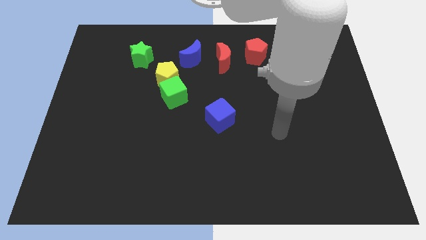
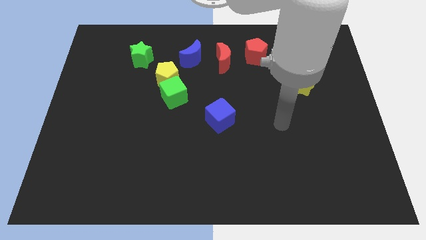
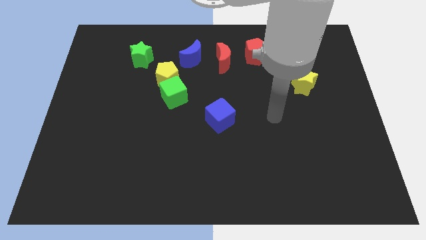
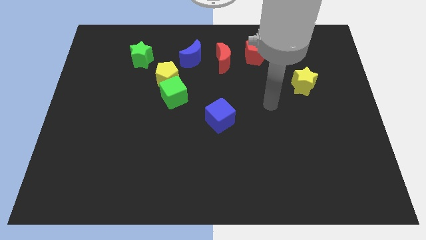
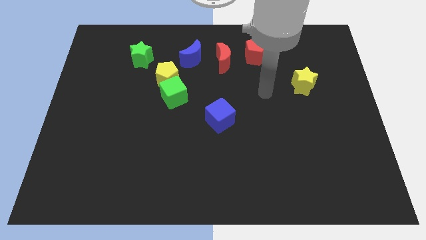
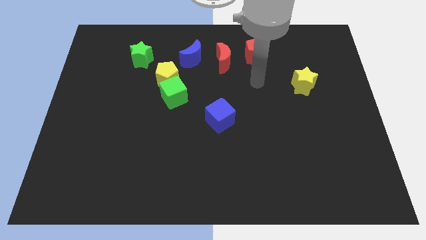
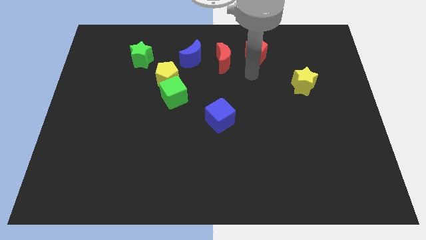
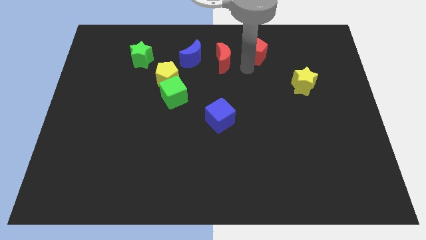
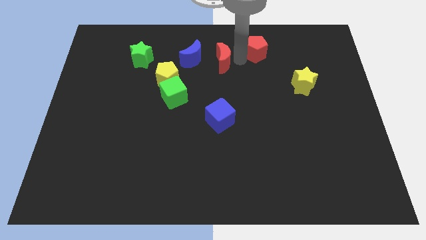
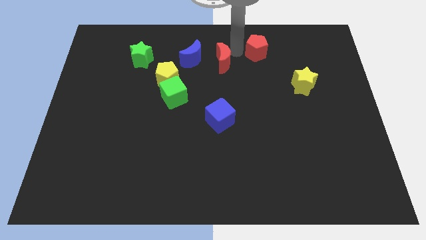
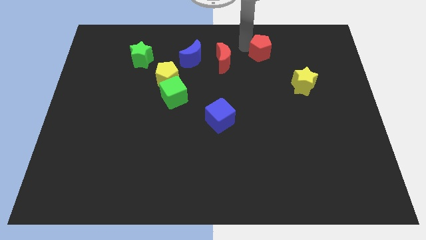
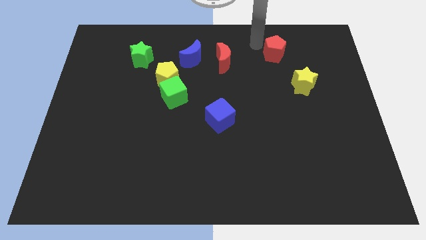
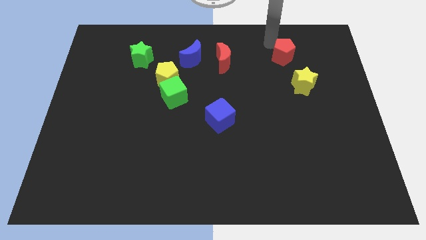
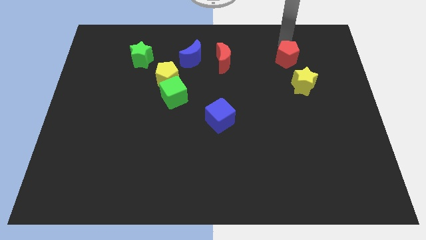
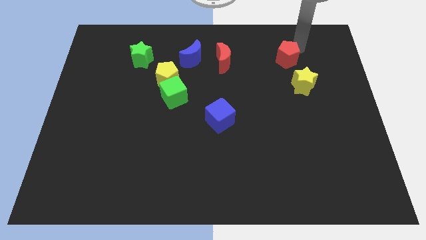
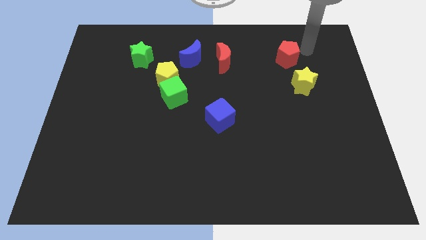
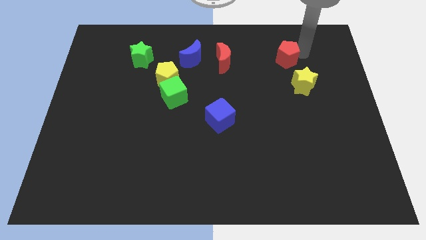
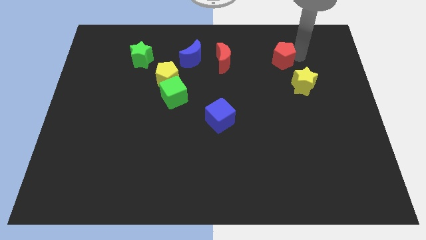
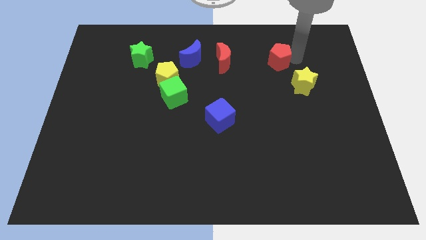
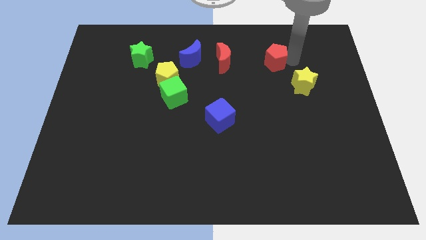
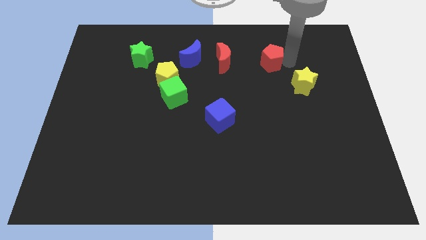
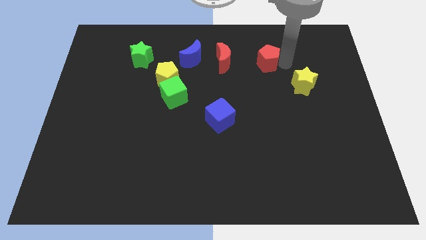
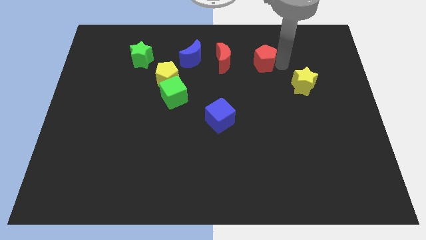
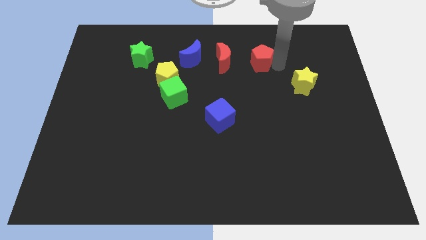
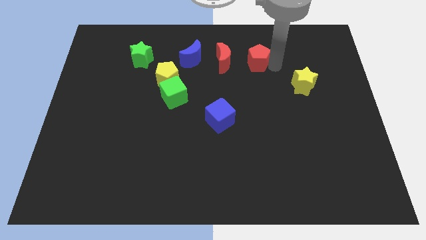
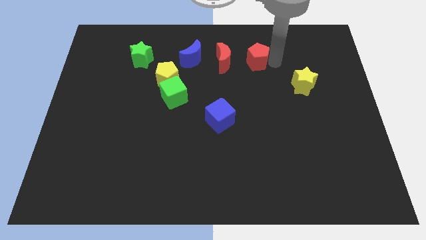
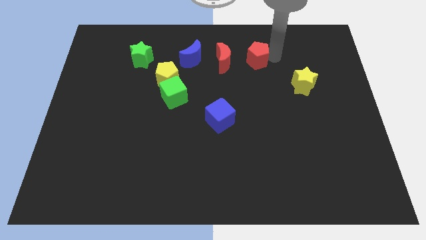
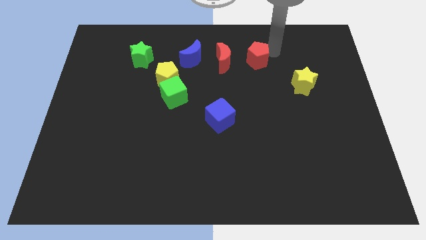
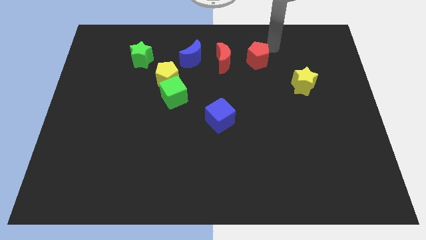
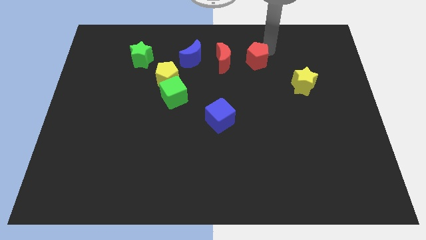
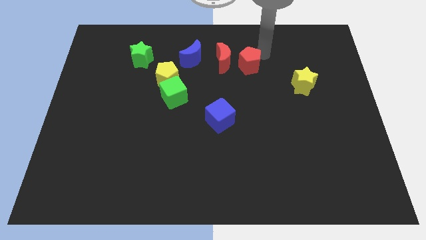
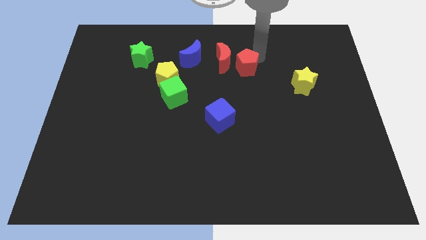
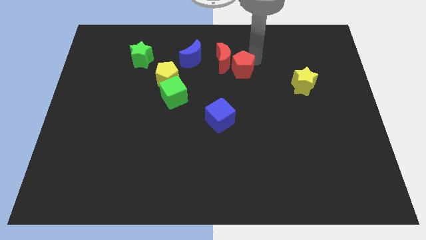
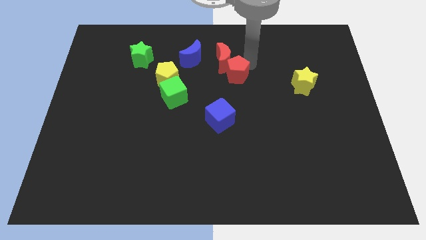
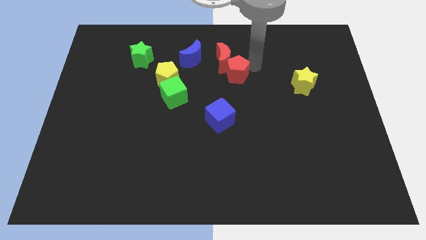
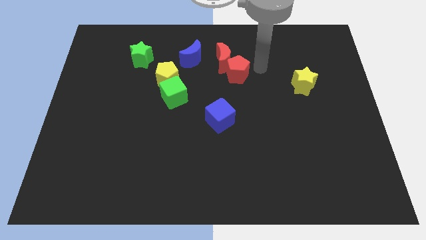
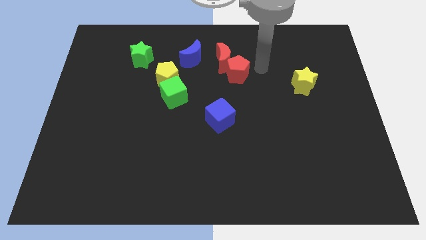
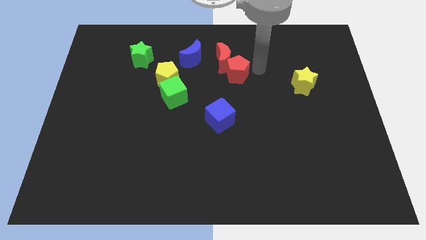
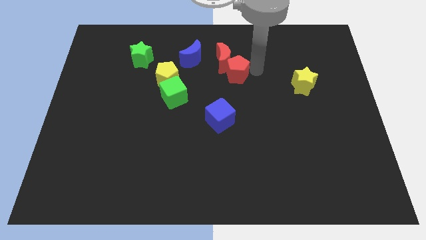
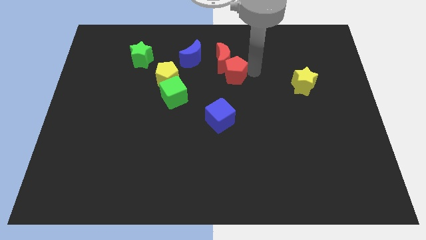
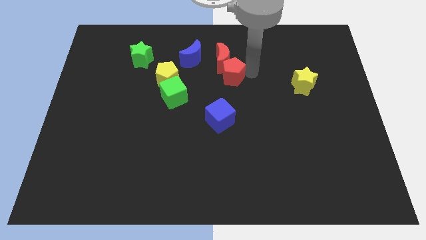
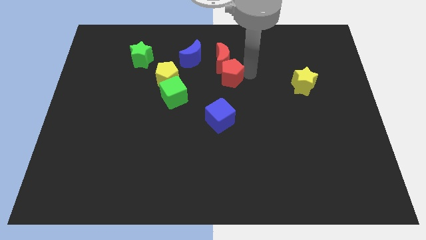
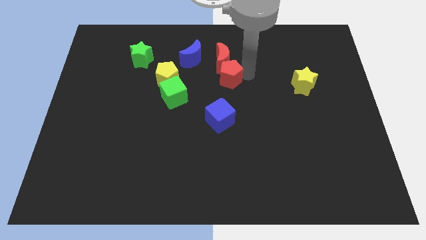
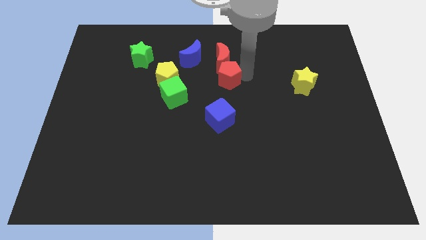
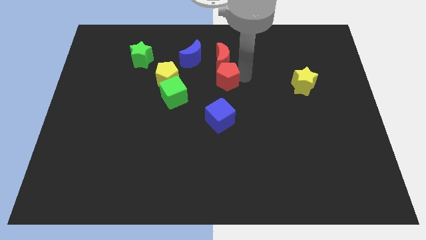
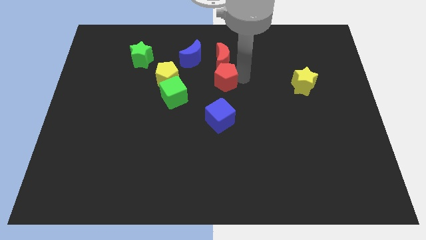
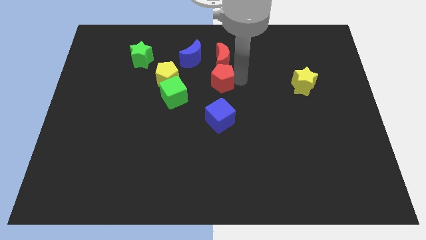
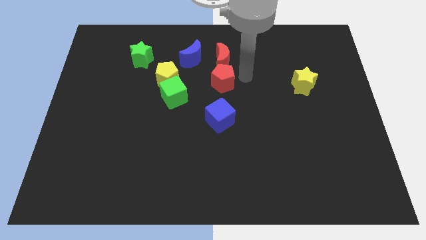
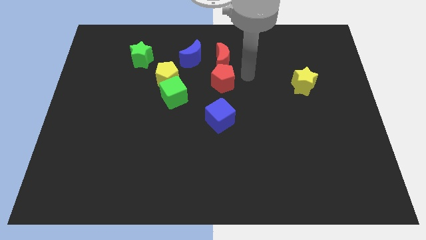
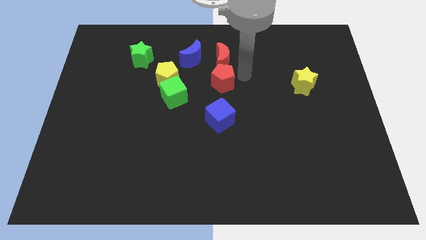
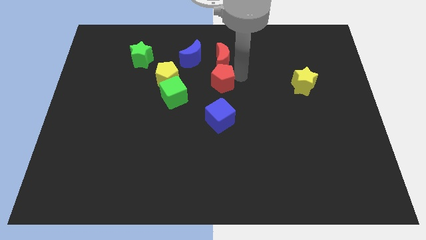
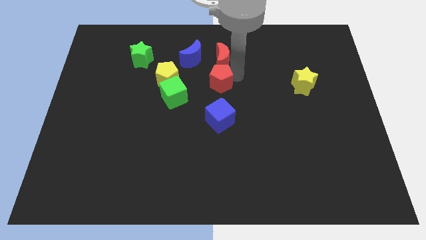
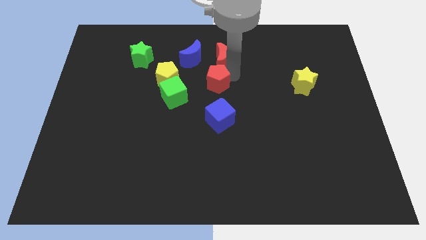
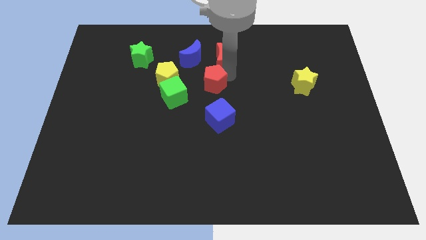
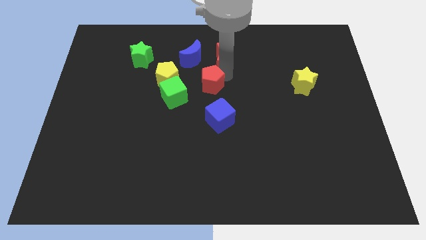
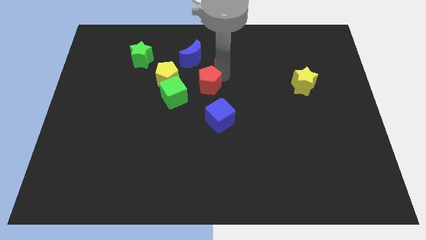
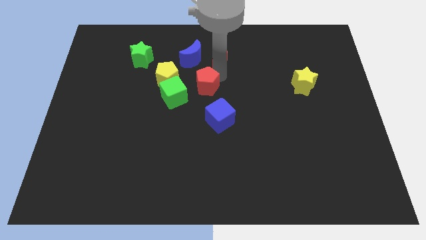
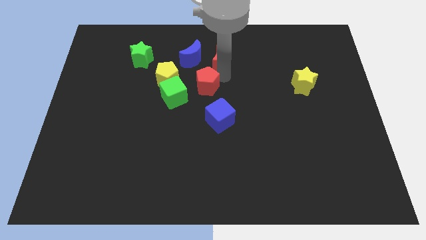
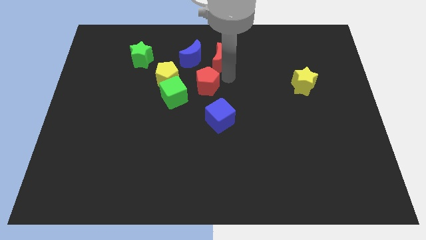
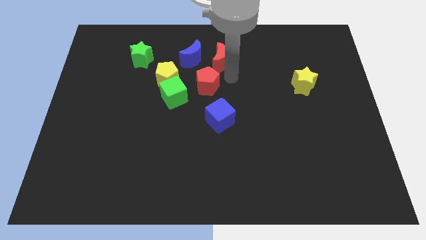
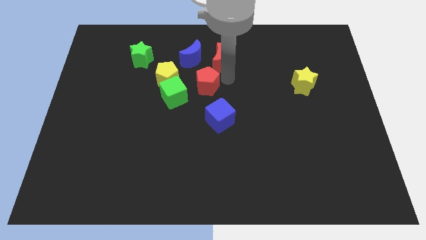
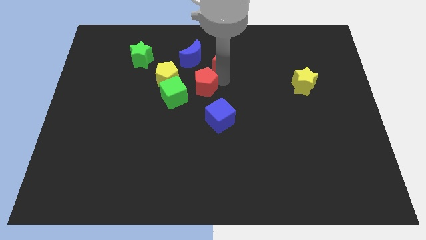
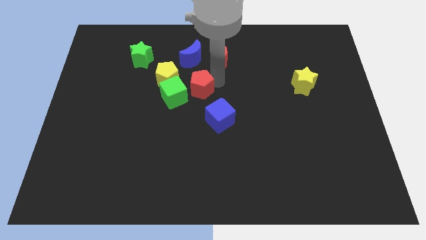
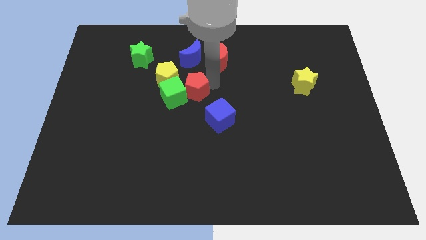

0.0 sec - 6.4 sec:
put the red pentagon to the green cube
